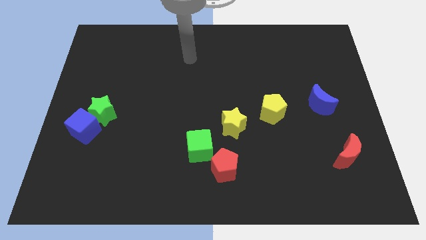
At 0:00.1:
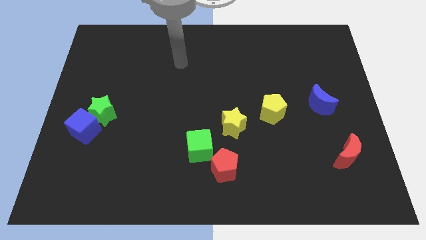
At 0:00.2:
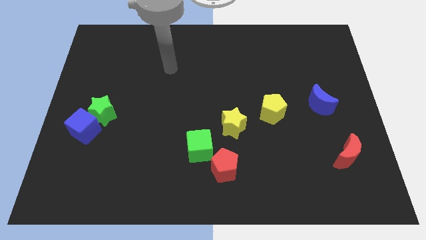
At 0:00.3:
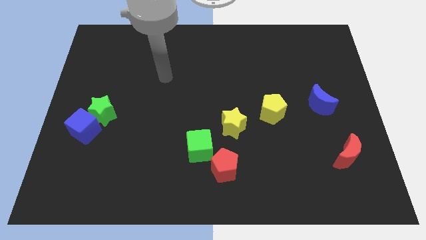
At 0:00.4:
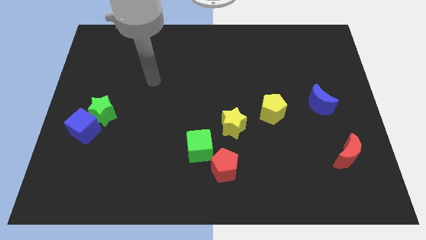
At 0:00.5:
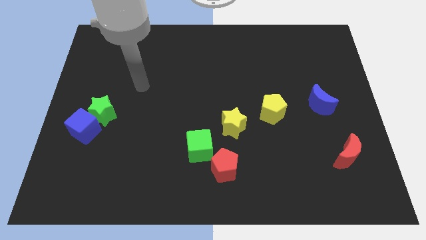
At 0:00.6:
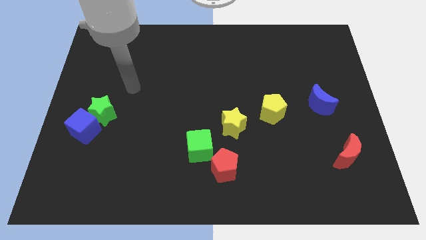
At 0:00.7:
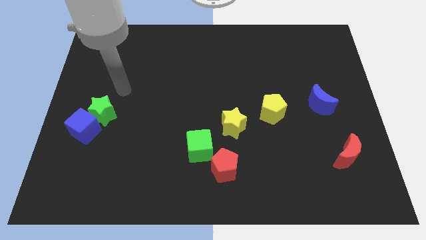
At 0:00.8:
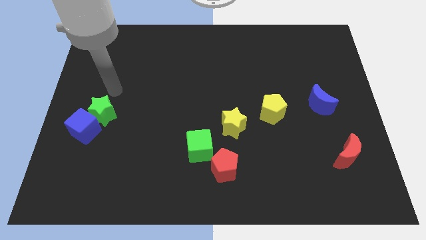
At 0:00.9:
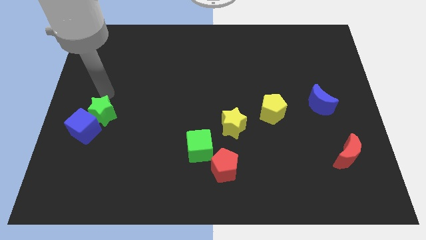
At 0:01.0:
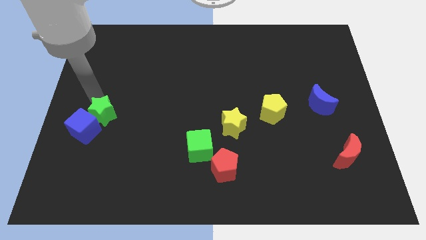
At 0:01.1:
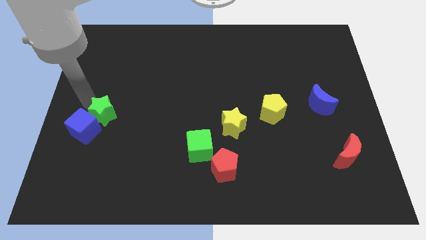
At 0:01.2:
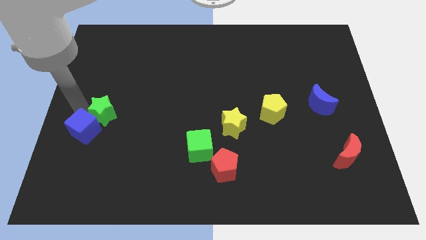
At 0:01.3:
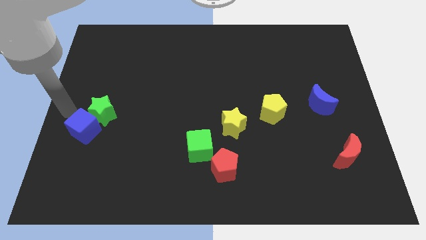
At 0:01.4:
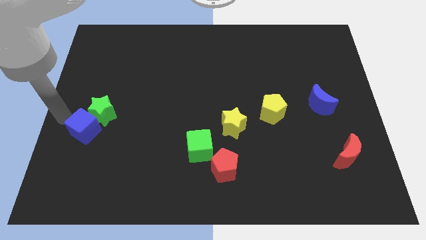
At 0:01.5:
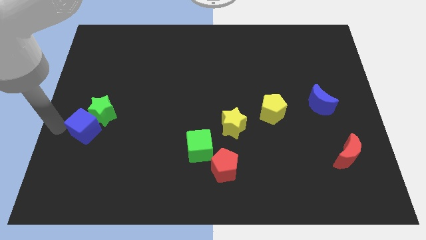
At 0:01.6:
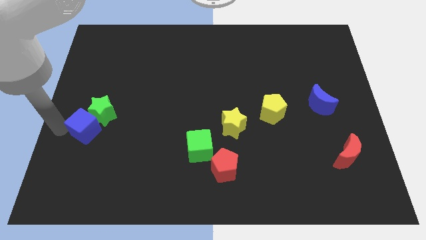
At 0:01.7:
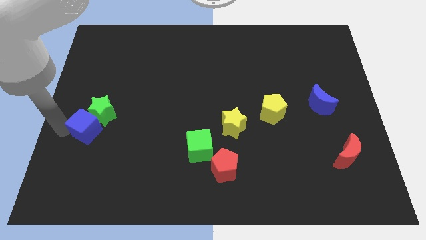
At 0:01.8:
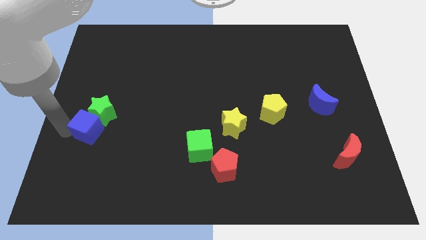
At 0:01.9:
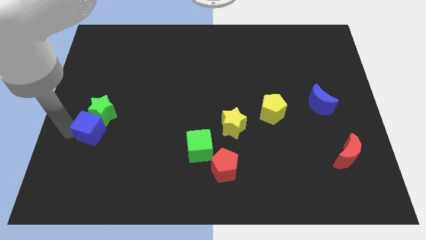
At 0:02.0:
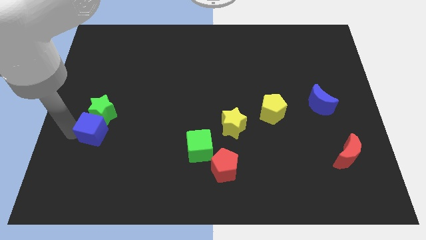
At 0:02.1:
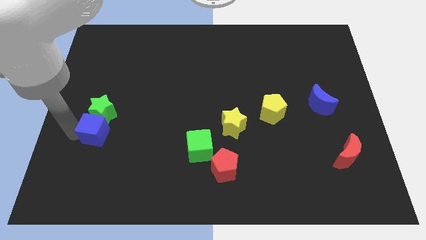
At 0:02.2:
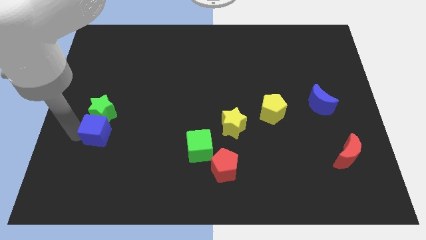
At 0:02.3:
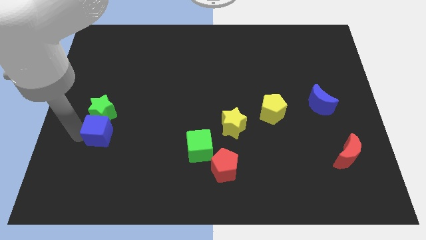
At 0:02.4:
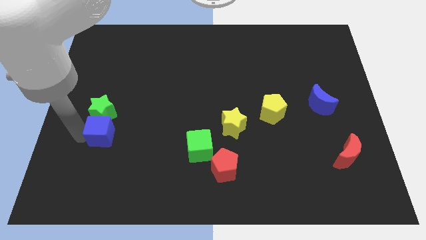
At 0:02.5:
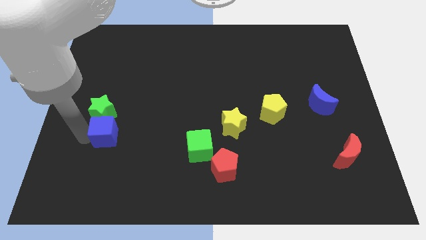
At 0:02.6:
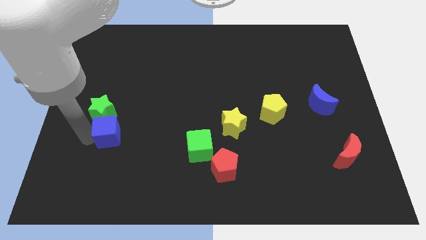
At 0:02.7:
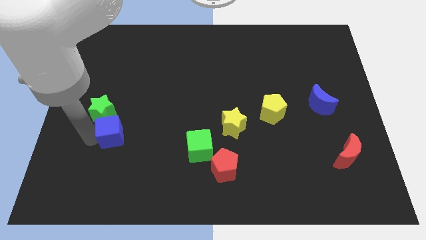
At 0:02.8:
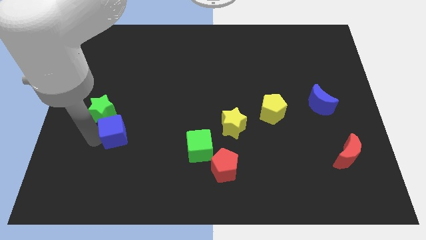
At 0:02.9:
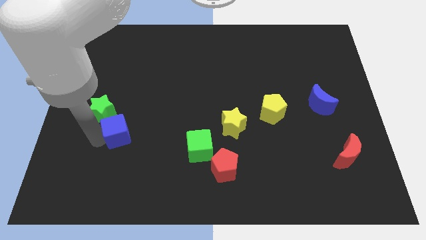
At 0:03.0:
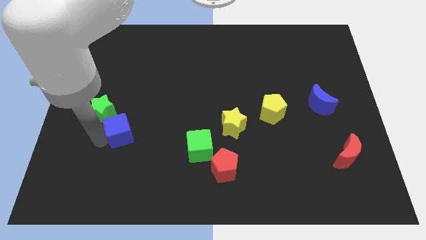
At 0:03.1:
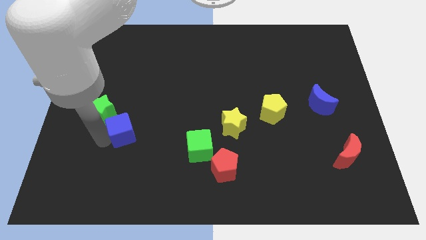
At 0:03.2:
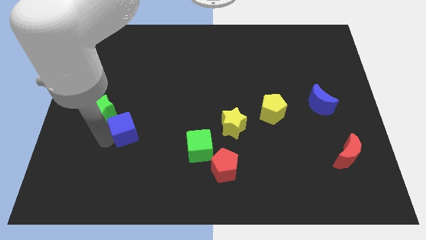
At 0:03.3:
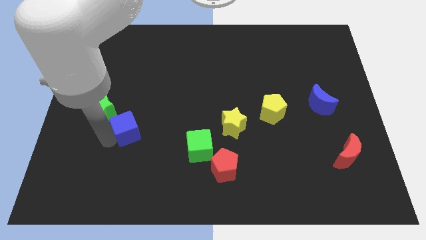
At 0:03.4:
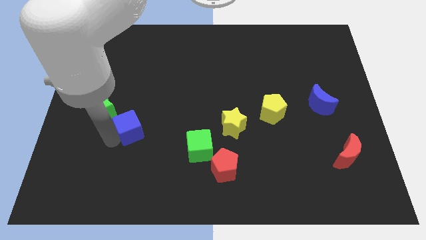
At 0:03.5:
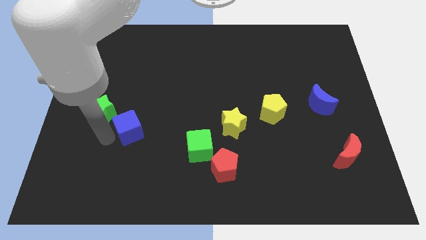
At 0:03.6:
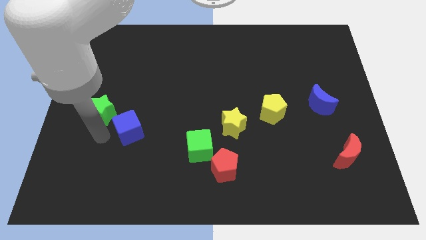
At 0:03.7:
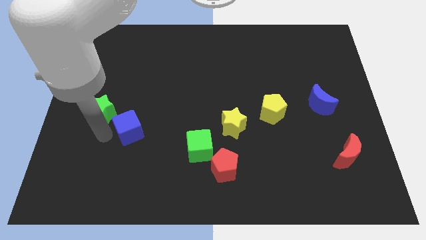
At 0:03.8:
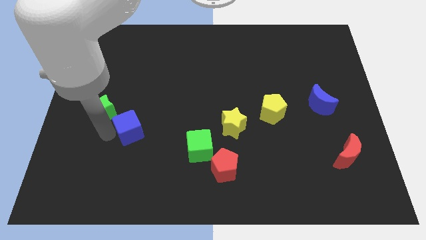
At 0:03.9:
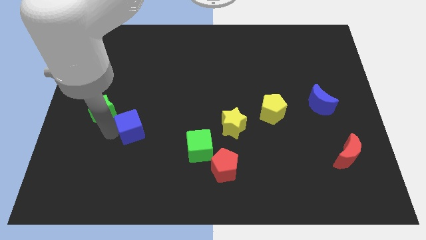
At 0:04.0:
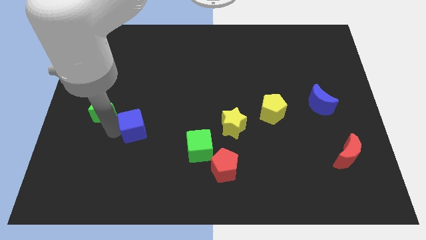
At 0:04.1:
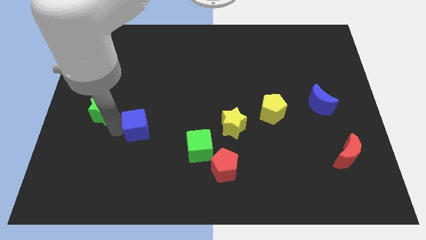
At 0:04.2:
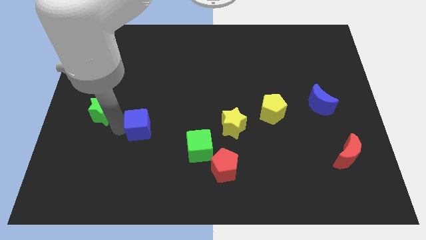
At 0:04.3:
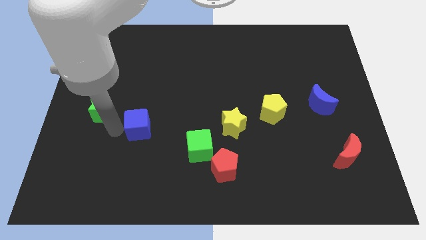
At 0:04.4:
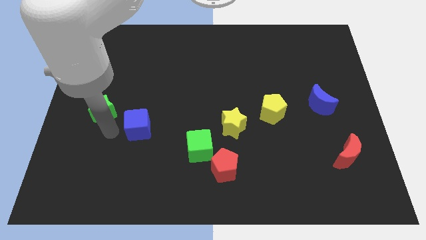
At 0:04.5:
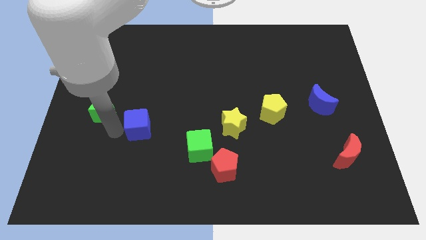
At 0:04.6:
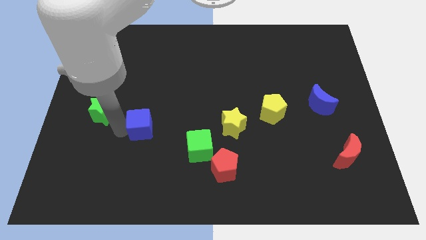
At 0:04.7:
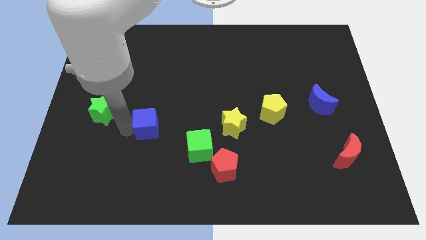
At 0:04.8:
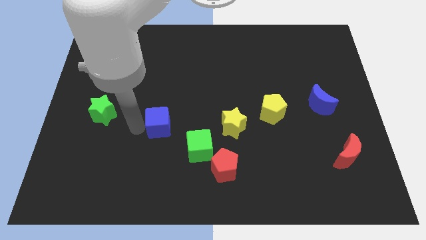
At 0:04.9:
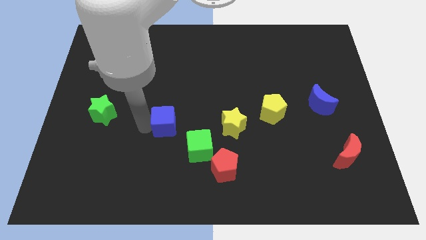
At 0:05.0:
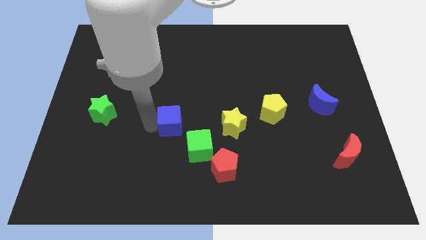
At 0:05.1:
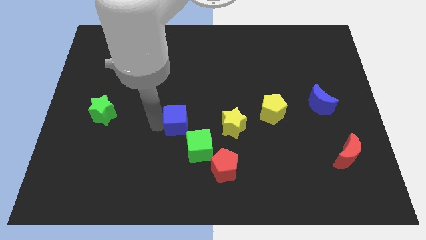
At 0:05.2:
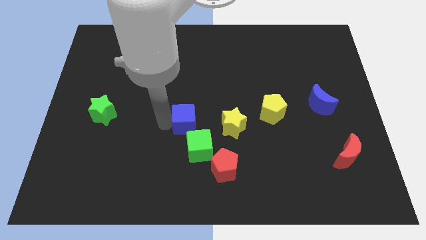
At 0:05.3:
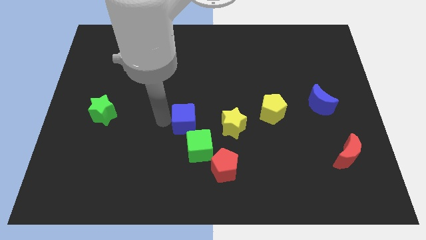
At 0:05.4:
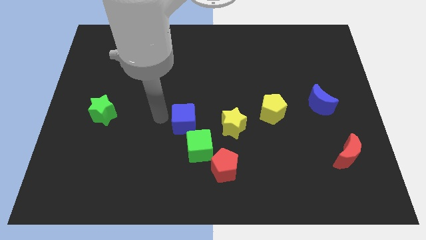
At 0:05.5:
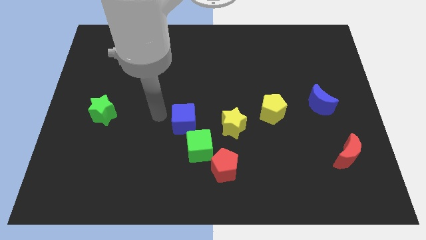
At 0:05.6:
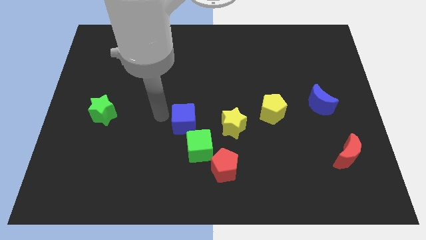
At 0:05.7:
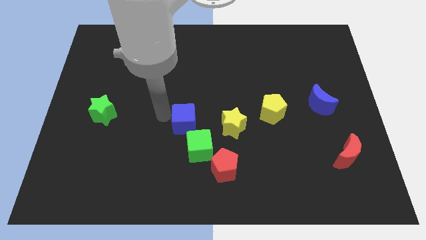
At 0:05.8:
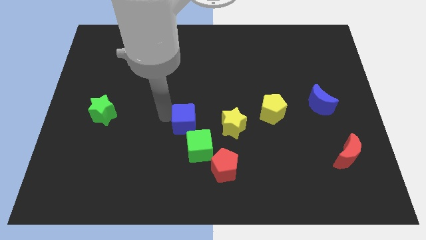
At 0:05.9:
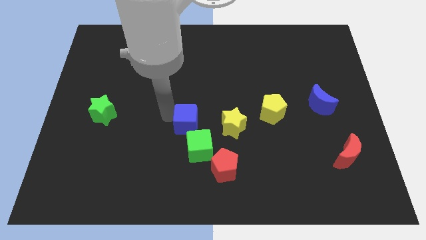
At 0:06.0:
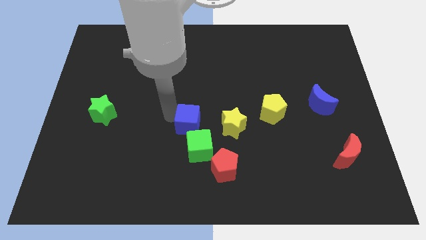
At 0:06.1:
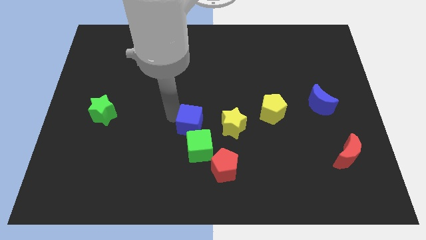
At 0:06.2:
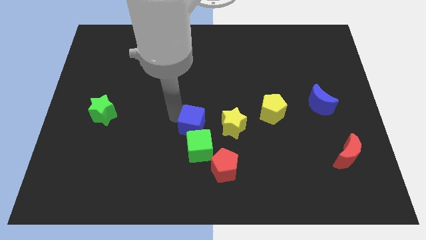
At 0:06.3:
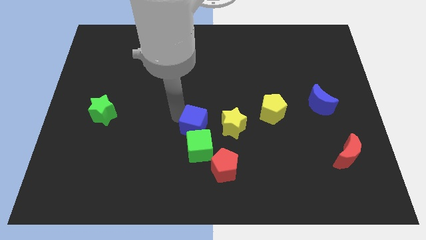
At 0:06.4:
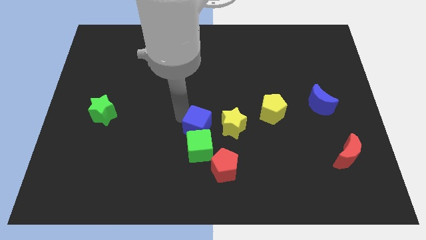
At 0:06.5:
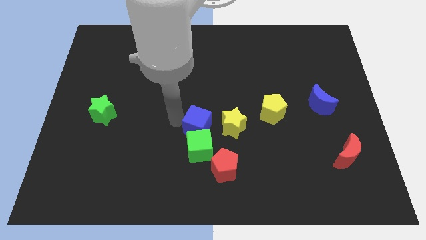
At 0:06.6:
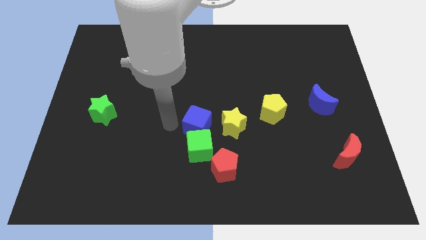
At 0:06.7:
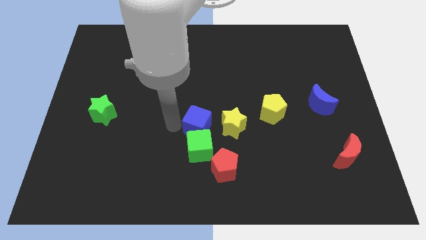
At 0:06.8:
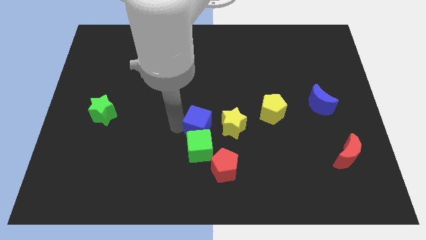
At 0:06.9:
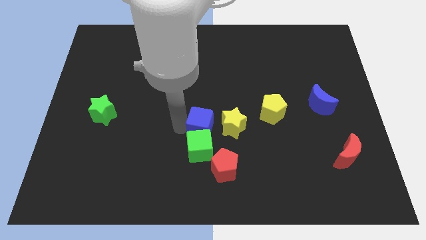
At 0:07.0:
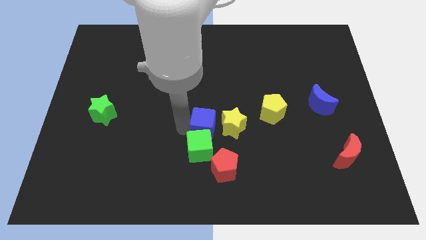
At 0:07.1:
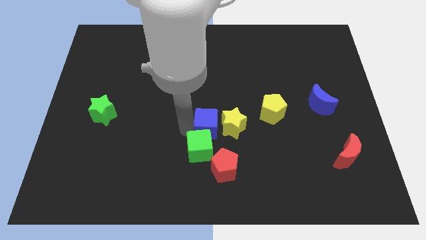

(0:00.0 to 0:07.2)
slide the blue cube to the yellow star

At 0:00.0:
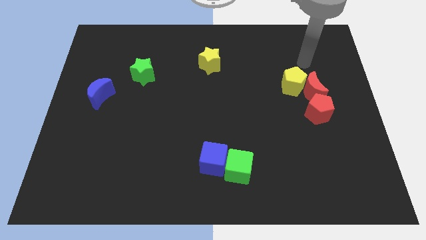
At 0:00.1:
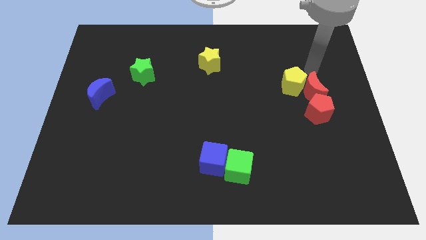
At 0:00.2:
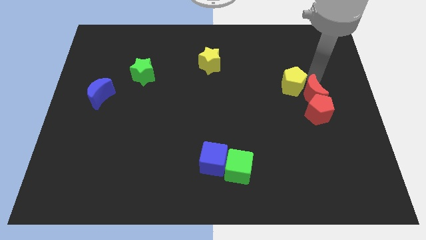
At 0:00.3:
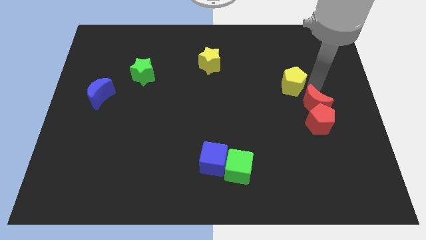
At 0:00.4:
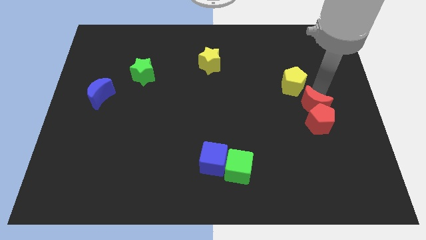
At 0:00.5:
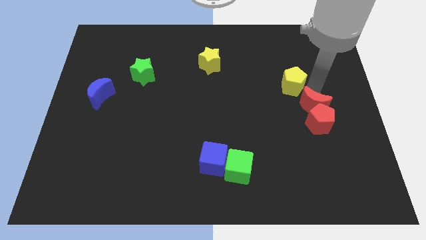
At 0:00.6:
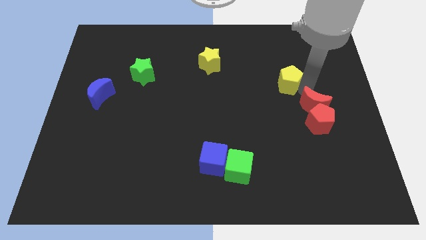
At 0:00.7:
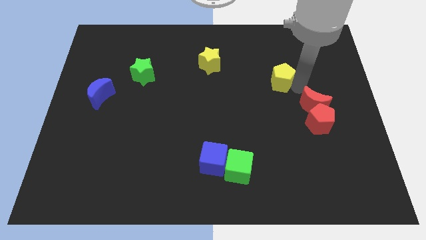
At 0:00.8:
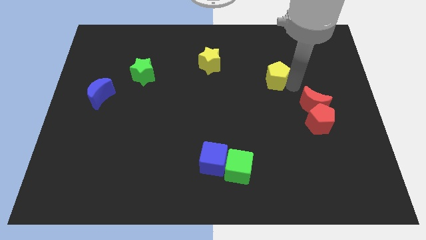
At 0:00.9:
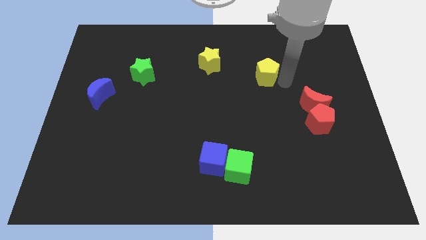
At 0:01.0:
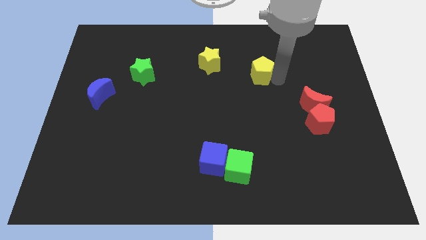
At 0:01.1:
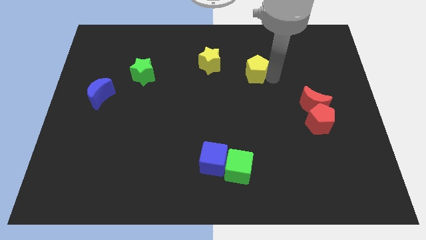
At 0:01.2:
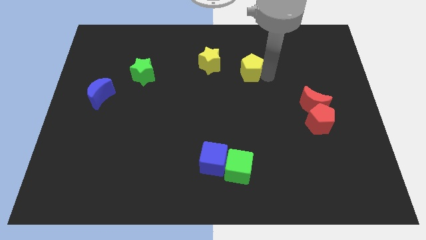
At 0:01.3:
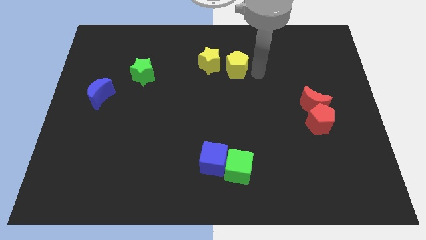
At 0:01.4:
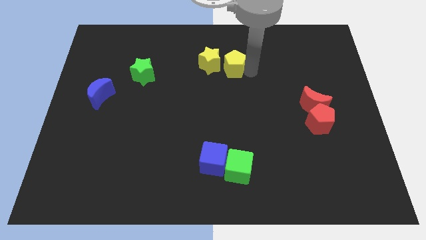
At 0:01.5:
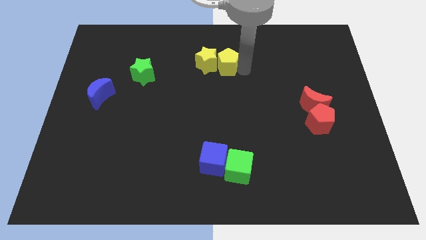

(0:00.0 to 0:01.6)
push the yellow pentagon to the yellow star
